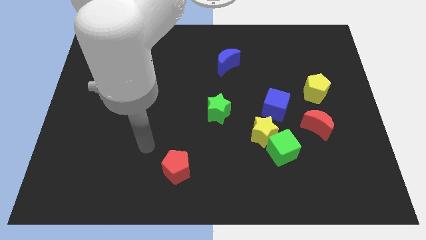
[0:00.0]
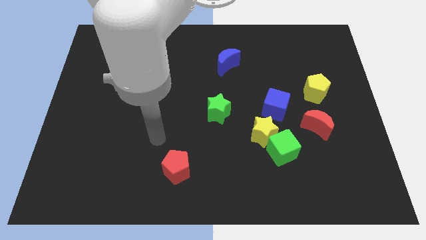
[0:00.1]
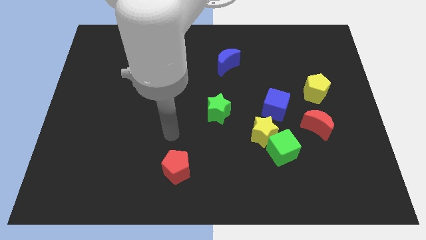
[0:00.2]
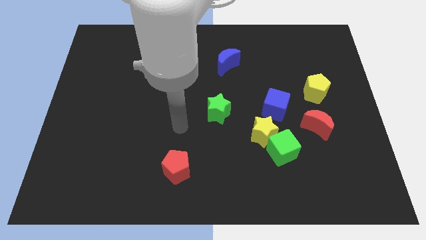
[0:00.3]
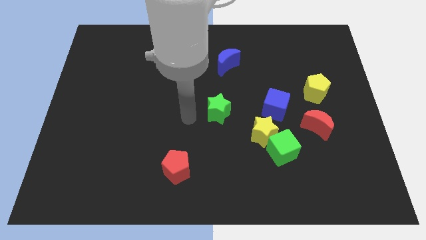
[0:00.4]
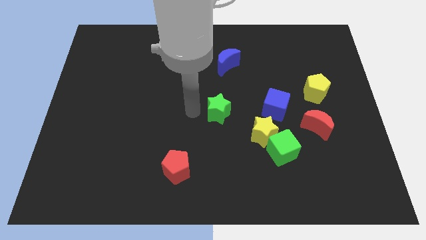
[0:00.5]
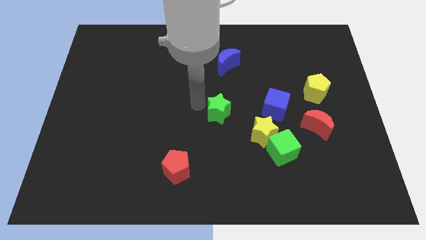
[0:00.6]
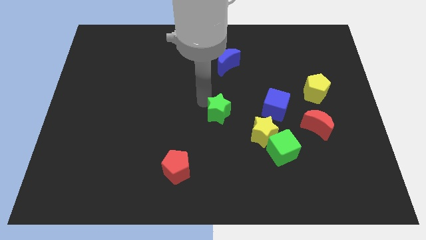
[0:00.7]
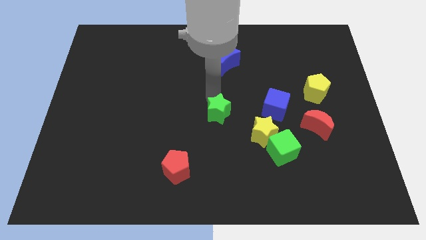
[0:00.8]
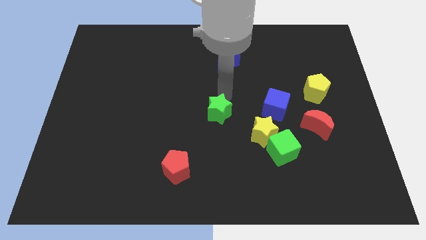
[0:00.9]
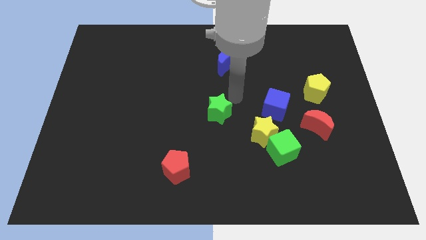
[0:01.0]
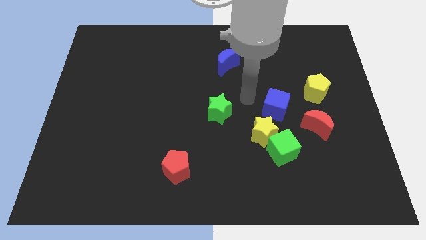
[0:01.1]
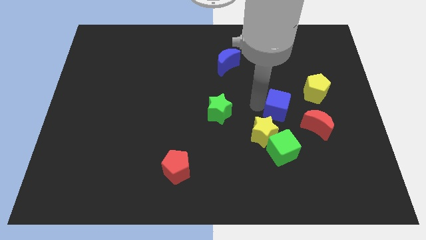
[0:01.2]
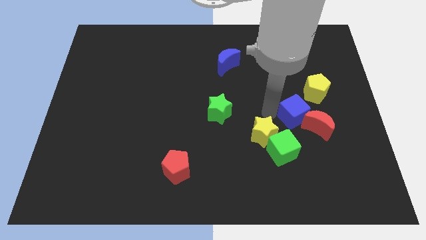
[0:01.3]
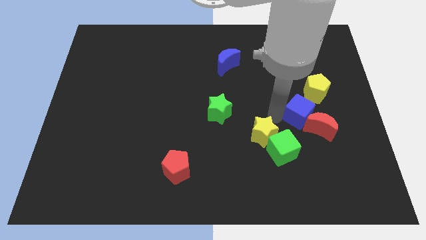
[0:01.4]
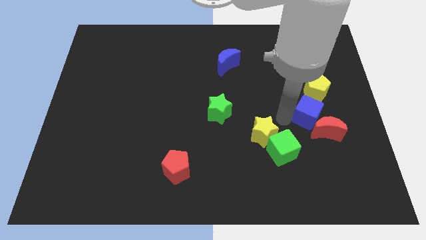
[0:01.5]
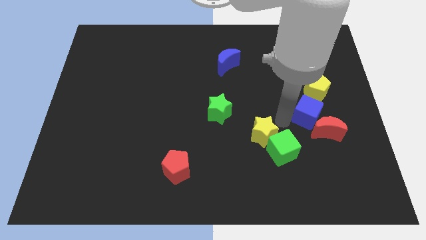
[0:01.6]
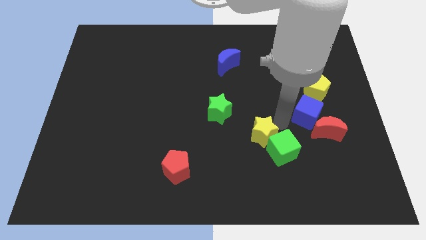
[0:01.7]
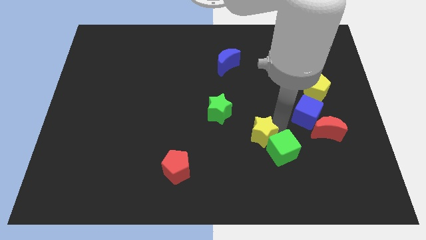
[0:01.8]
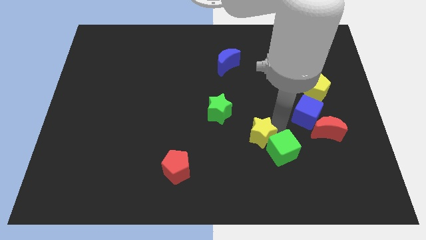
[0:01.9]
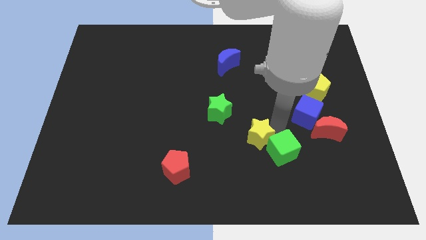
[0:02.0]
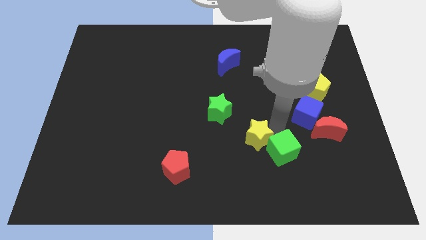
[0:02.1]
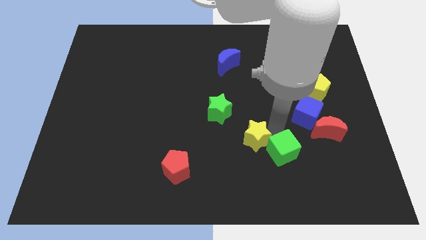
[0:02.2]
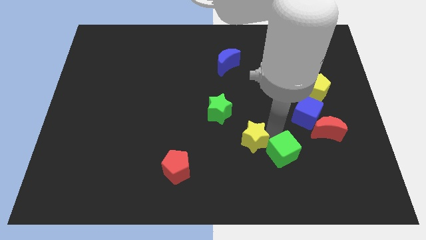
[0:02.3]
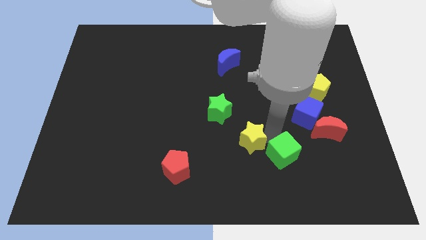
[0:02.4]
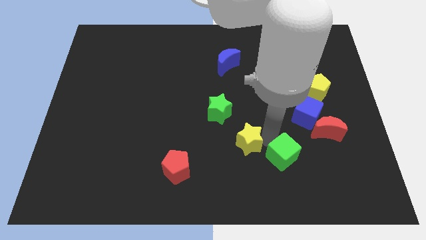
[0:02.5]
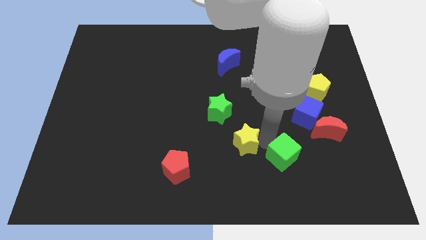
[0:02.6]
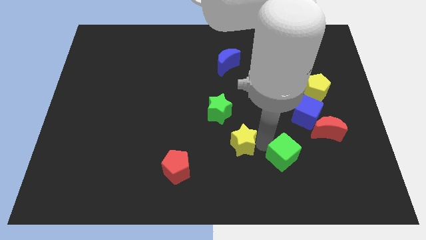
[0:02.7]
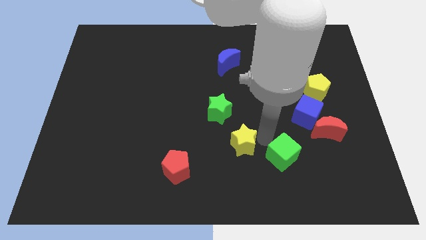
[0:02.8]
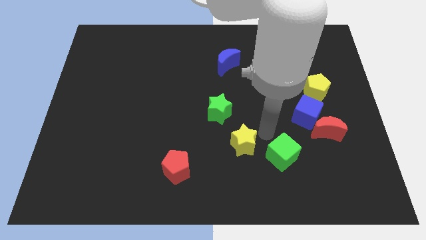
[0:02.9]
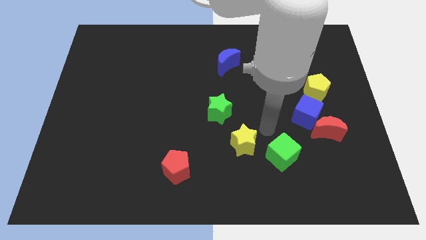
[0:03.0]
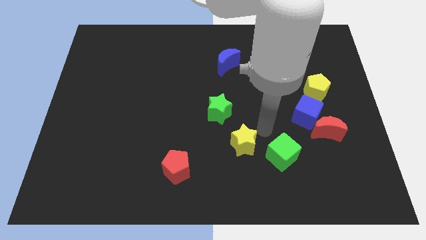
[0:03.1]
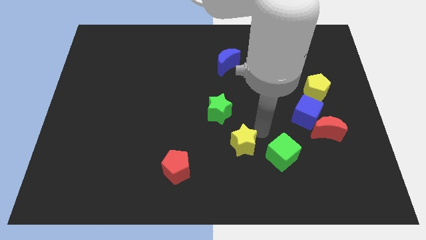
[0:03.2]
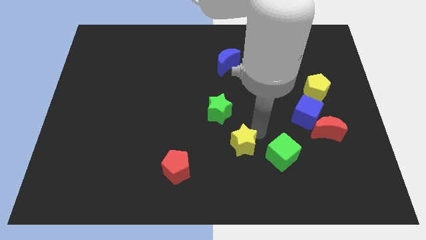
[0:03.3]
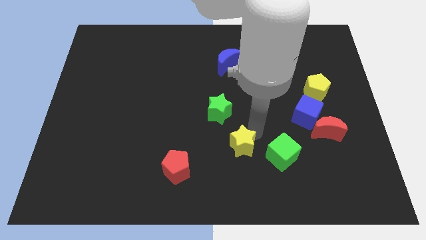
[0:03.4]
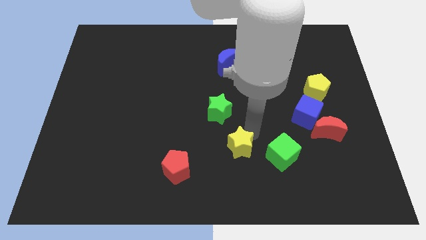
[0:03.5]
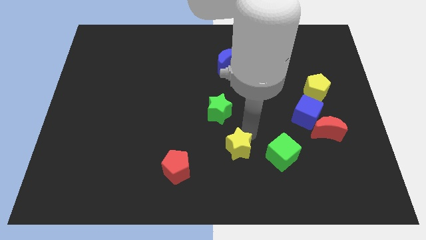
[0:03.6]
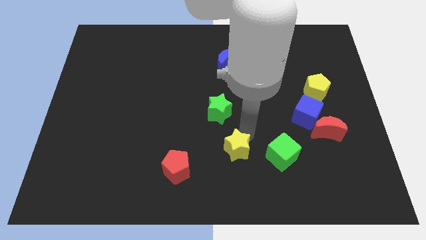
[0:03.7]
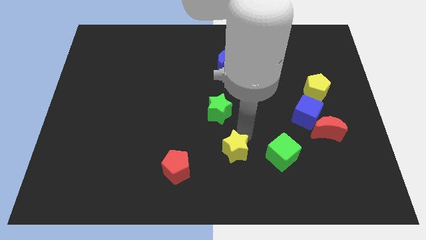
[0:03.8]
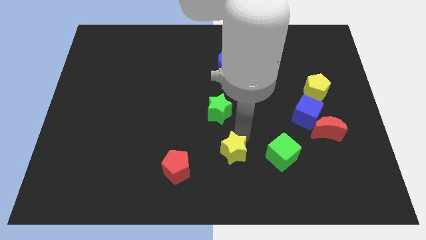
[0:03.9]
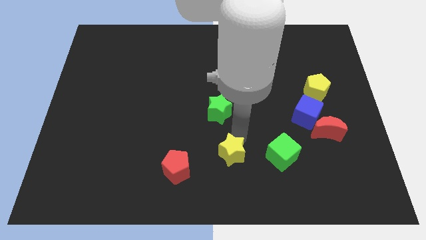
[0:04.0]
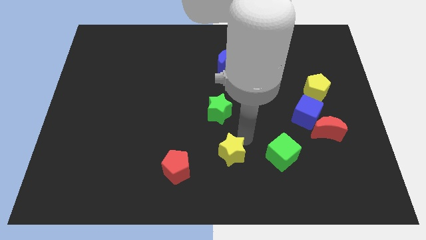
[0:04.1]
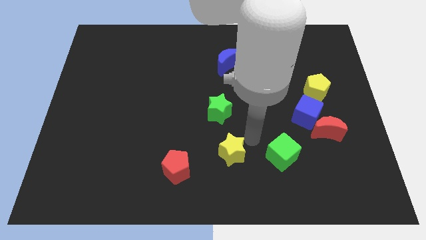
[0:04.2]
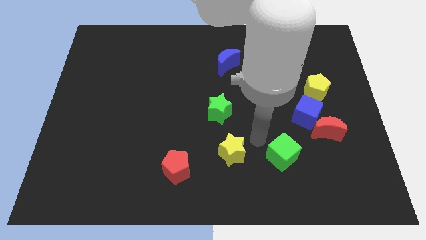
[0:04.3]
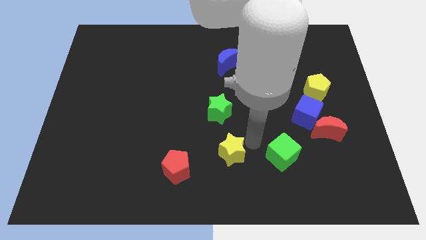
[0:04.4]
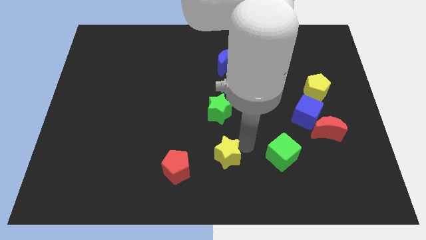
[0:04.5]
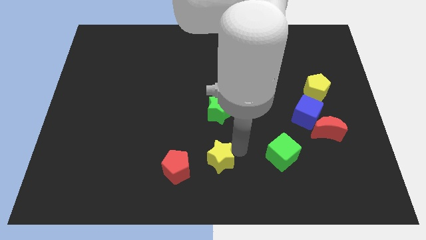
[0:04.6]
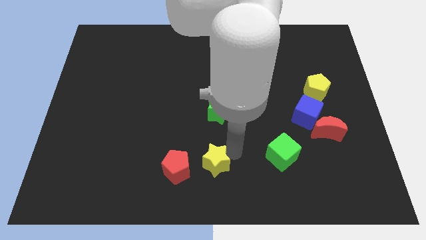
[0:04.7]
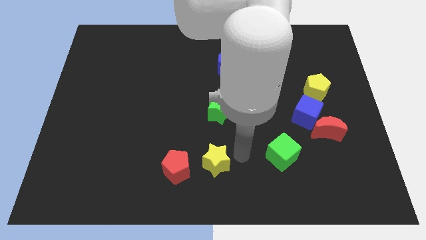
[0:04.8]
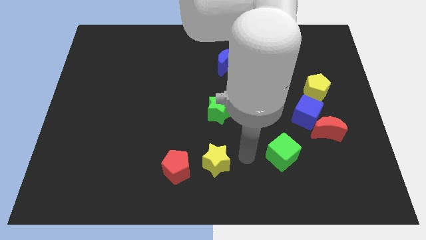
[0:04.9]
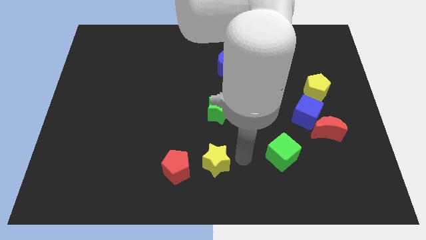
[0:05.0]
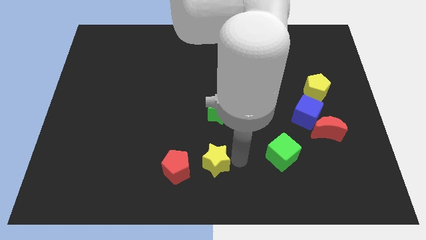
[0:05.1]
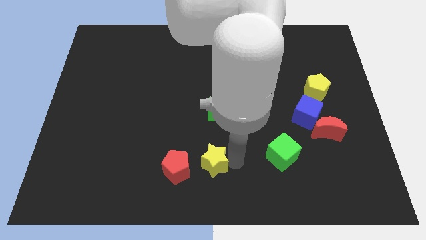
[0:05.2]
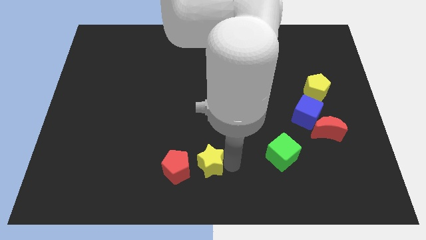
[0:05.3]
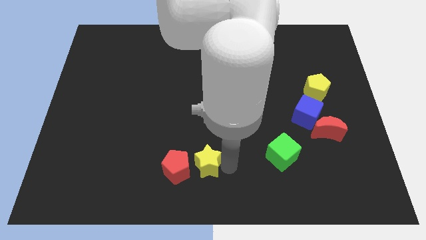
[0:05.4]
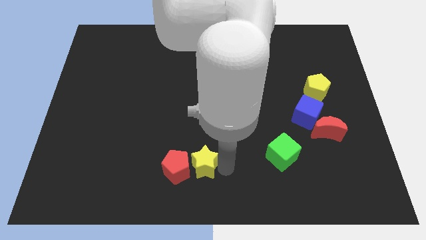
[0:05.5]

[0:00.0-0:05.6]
push the yellow star close to the red pentagon

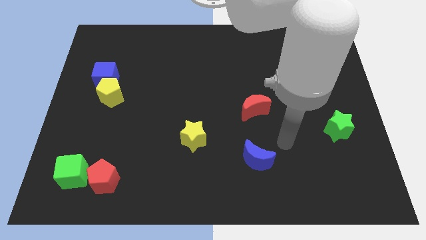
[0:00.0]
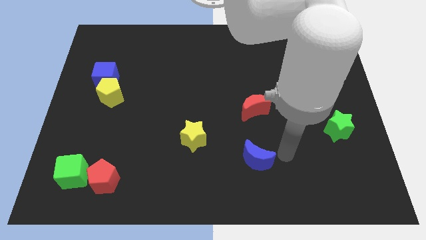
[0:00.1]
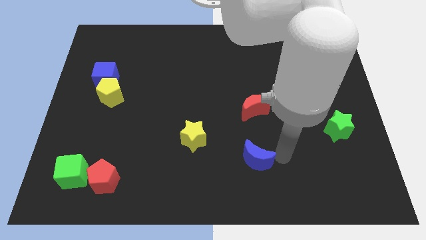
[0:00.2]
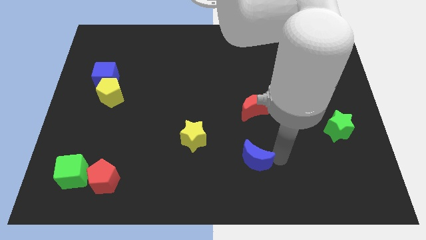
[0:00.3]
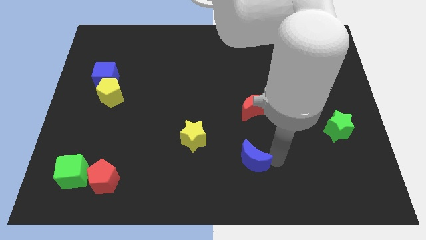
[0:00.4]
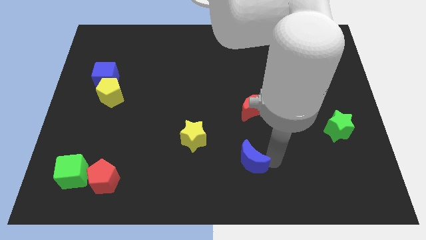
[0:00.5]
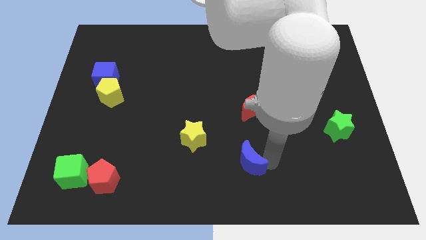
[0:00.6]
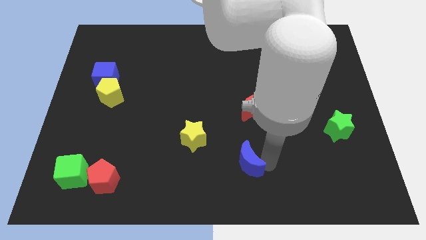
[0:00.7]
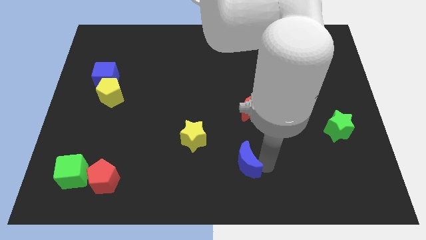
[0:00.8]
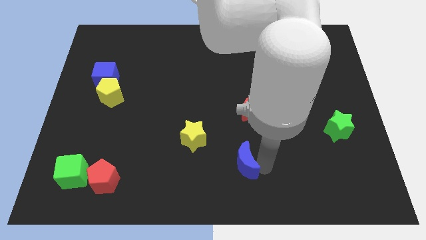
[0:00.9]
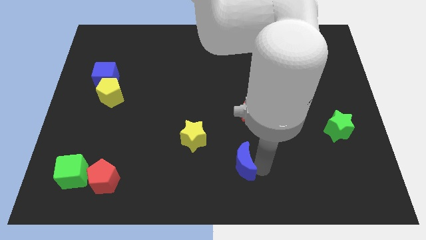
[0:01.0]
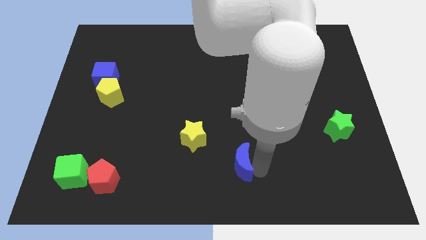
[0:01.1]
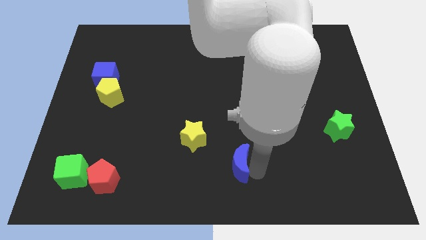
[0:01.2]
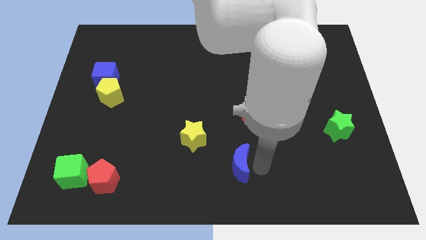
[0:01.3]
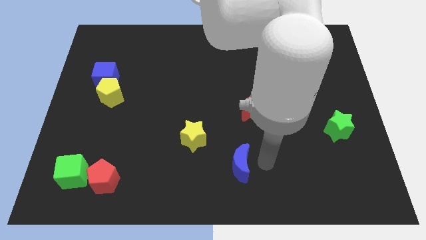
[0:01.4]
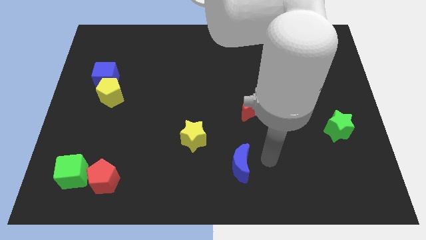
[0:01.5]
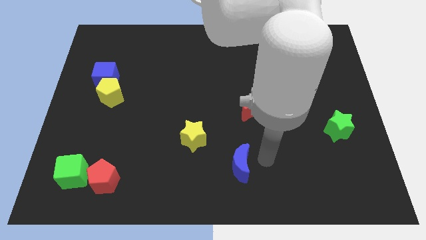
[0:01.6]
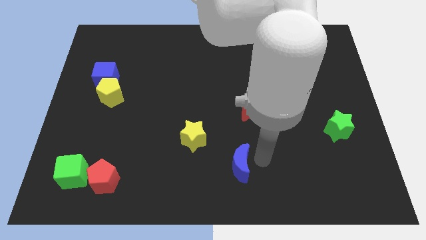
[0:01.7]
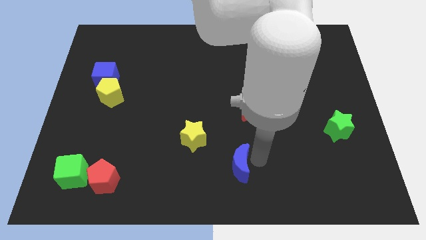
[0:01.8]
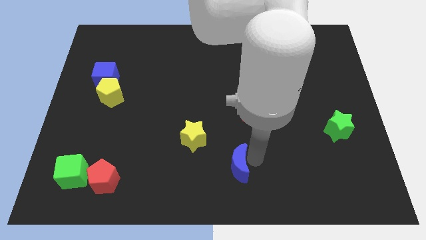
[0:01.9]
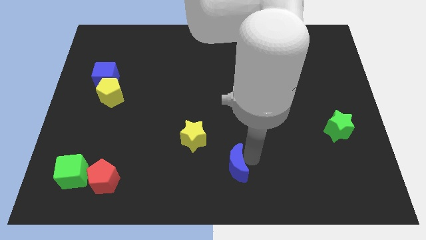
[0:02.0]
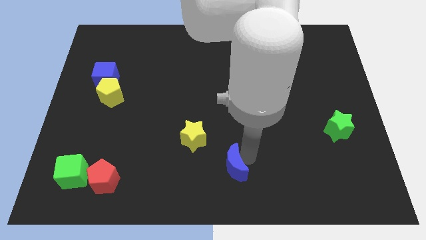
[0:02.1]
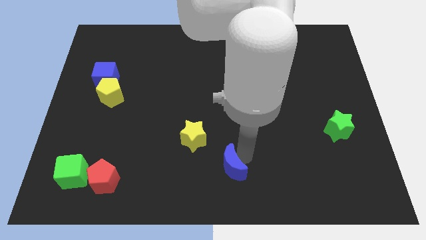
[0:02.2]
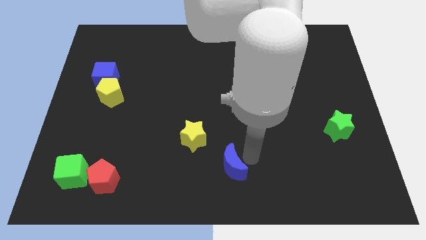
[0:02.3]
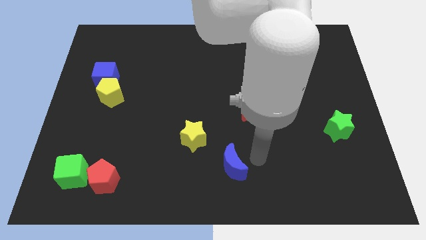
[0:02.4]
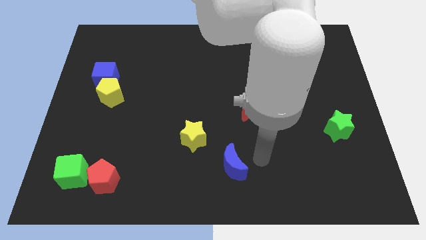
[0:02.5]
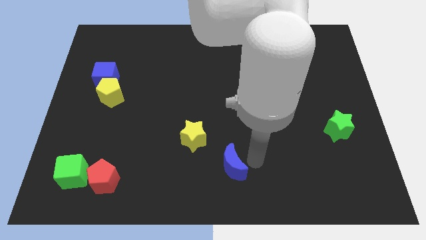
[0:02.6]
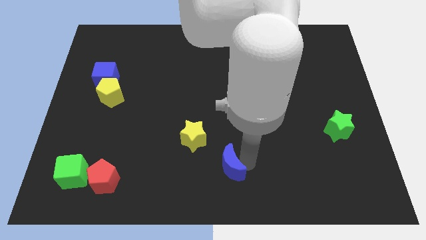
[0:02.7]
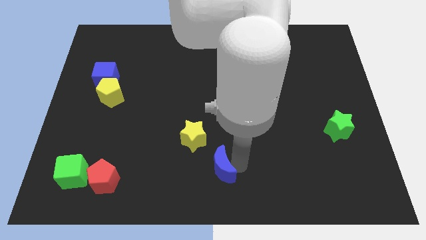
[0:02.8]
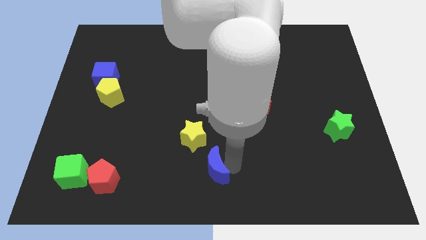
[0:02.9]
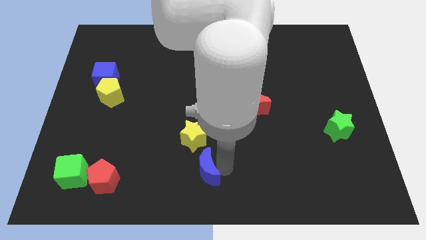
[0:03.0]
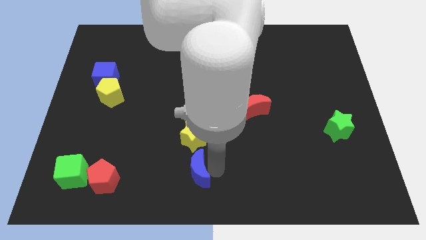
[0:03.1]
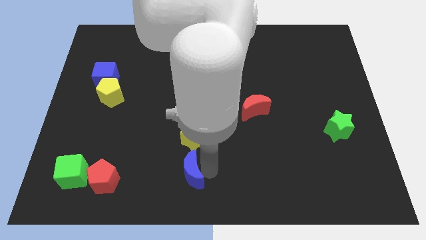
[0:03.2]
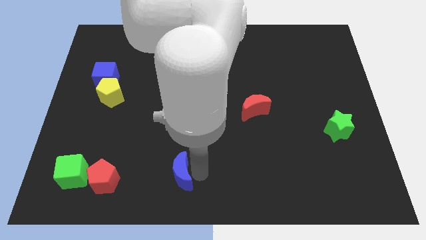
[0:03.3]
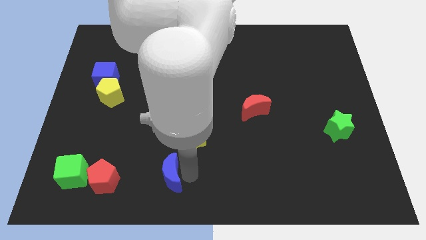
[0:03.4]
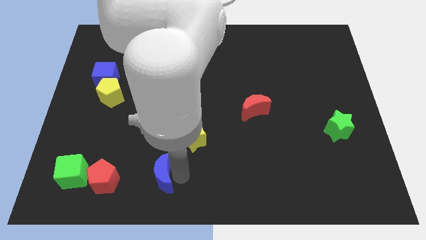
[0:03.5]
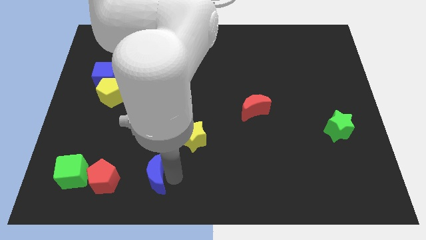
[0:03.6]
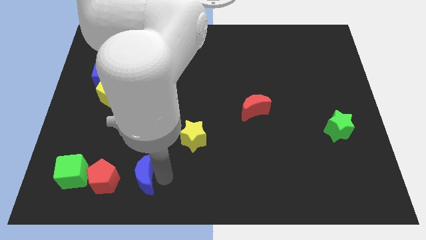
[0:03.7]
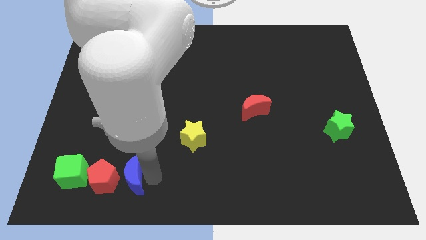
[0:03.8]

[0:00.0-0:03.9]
move the blue moon towards the red pentagon
